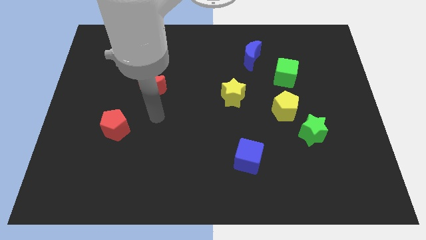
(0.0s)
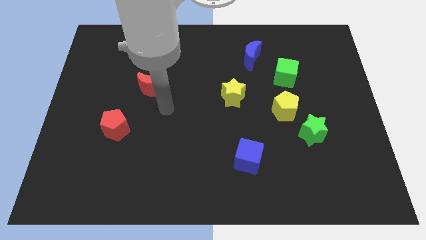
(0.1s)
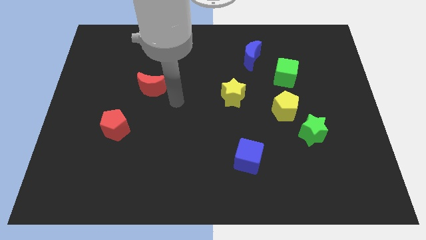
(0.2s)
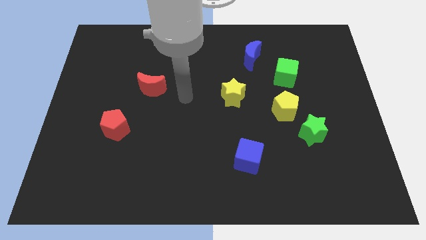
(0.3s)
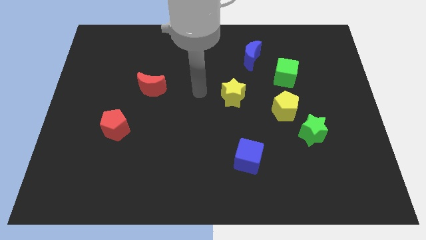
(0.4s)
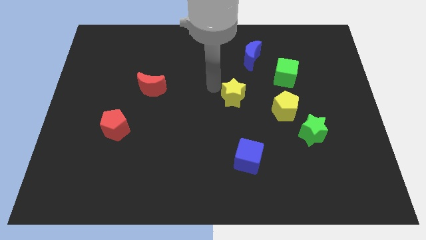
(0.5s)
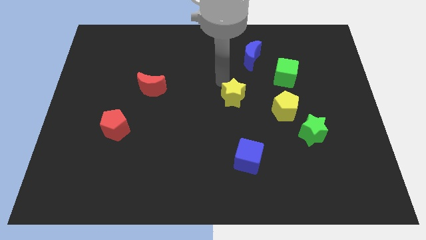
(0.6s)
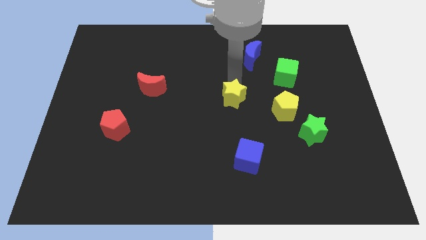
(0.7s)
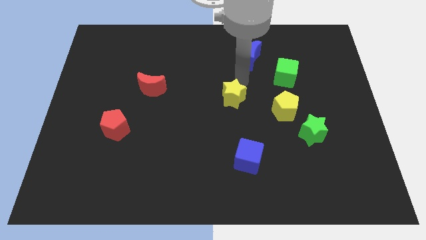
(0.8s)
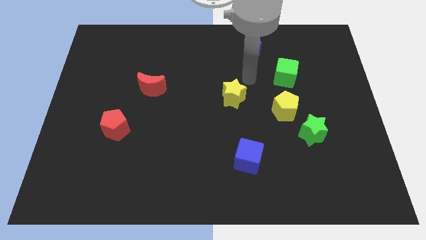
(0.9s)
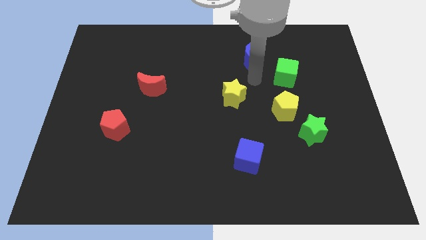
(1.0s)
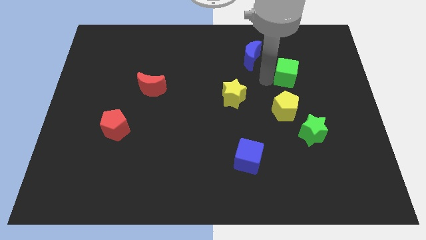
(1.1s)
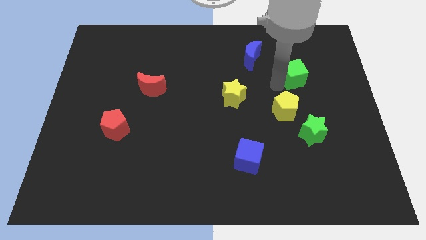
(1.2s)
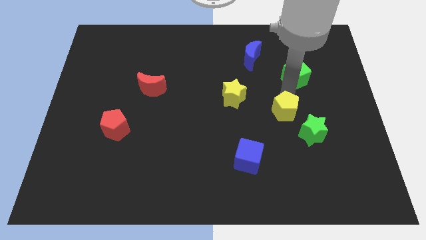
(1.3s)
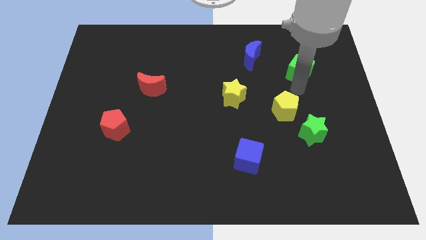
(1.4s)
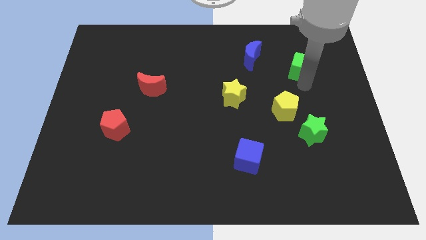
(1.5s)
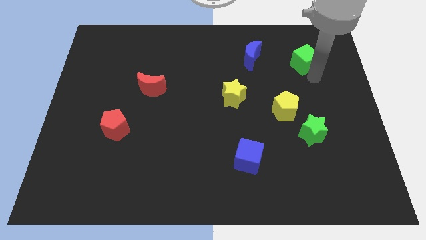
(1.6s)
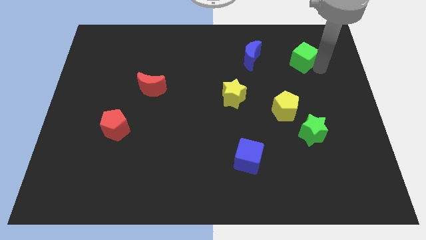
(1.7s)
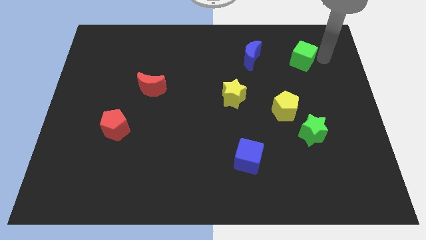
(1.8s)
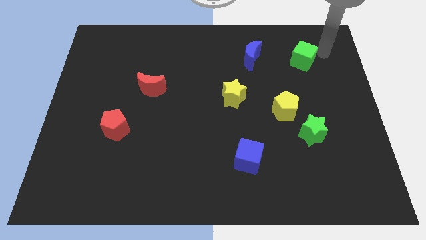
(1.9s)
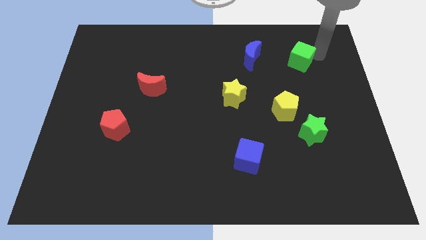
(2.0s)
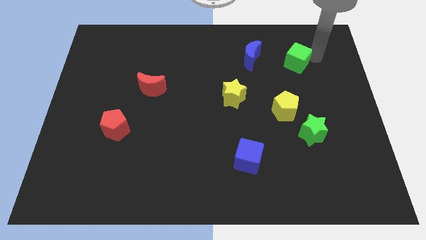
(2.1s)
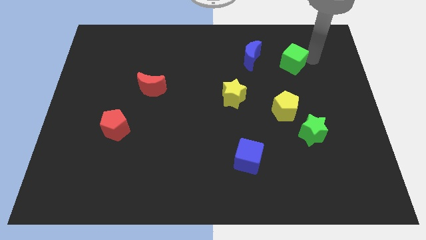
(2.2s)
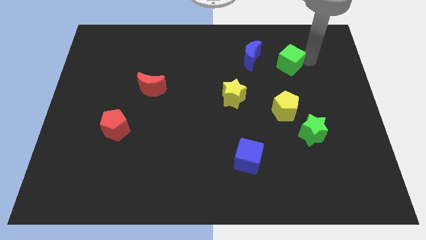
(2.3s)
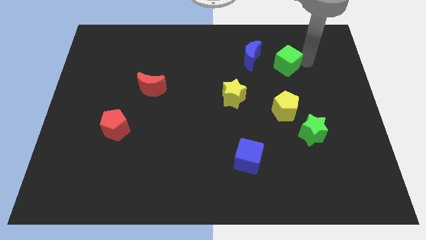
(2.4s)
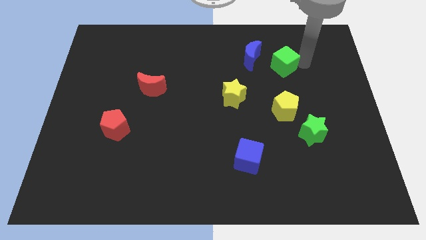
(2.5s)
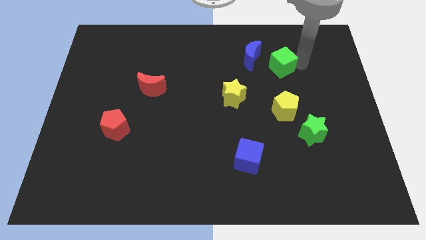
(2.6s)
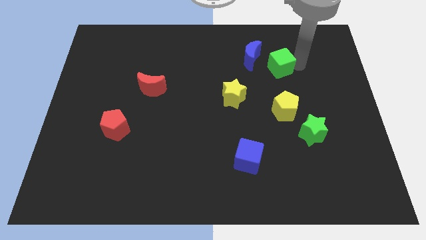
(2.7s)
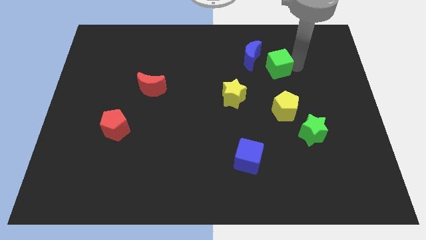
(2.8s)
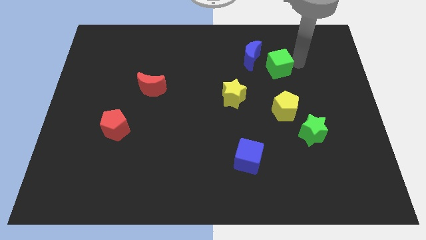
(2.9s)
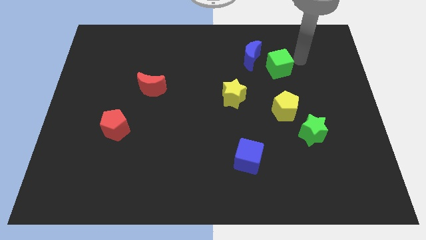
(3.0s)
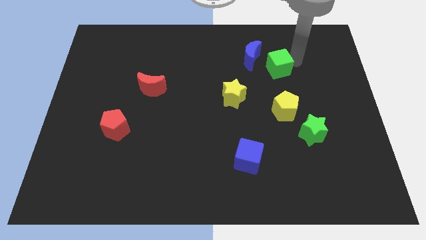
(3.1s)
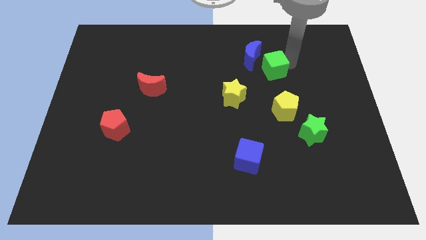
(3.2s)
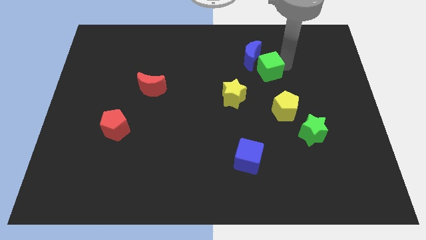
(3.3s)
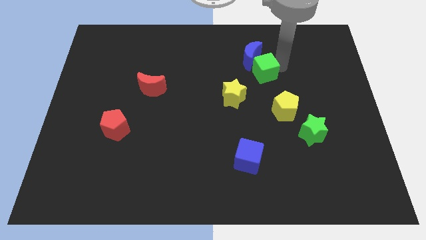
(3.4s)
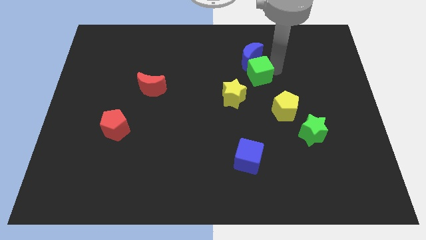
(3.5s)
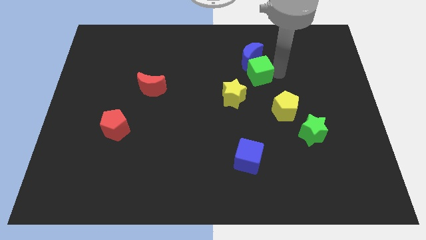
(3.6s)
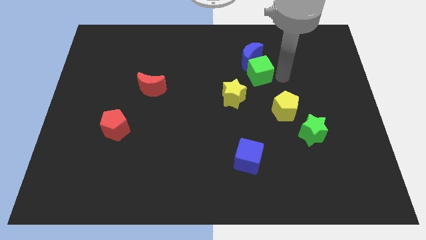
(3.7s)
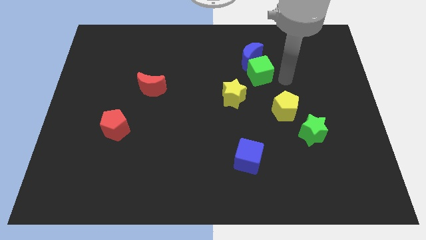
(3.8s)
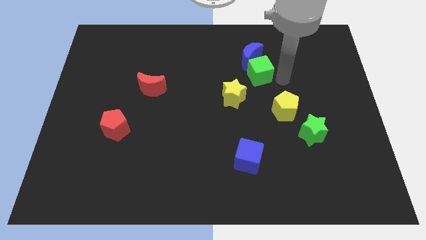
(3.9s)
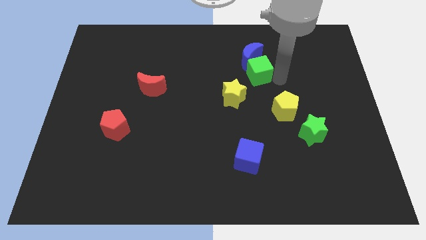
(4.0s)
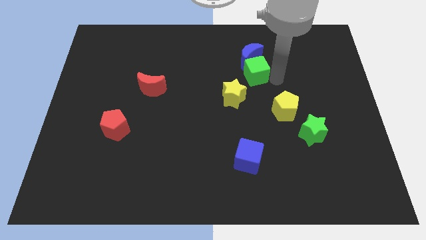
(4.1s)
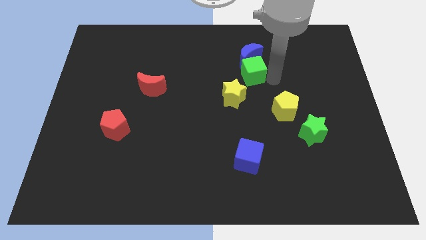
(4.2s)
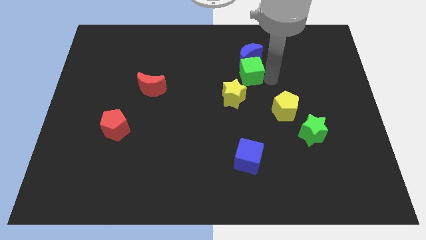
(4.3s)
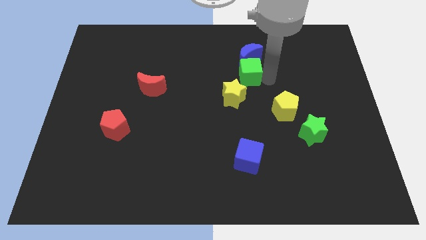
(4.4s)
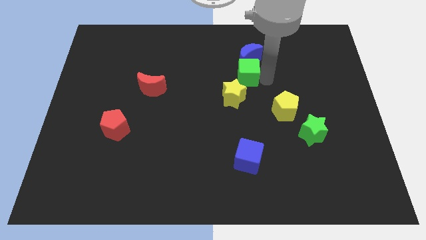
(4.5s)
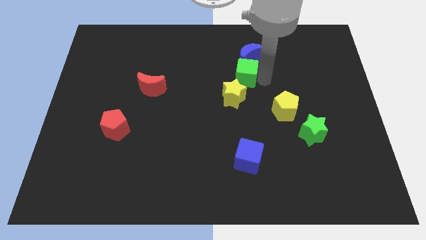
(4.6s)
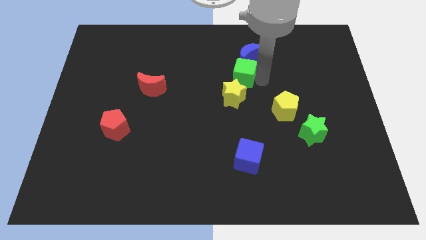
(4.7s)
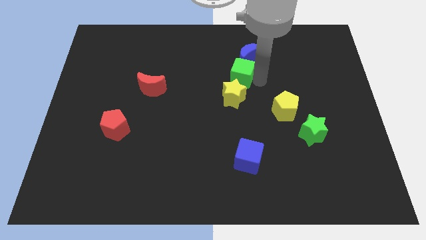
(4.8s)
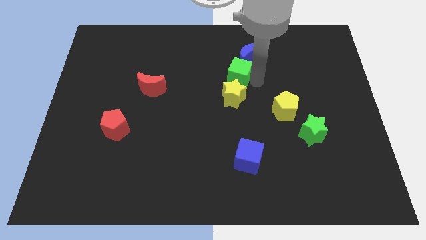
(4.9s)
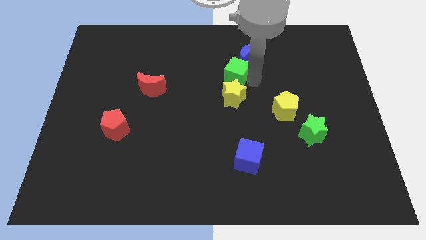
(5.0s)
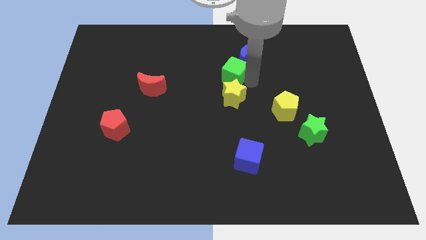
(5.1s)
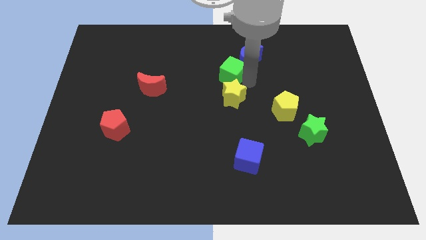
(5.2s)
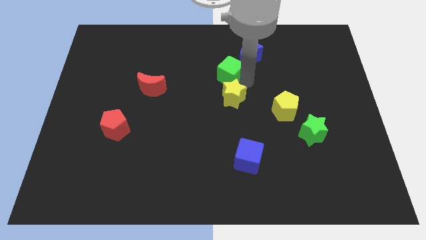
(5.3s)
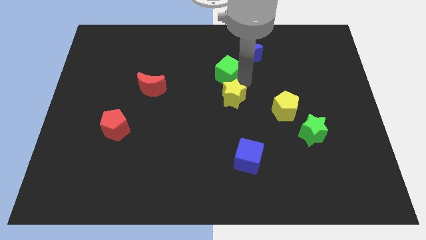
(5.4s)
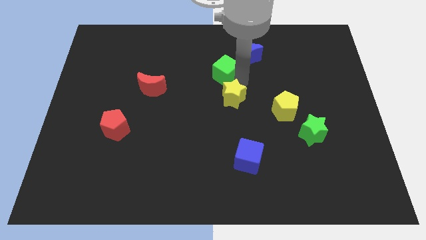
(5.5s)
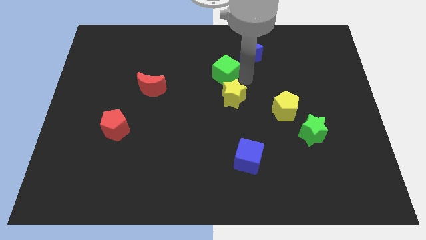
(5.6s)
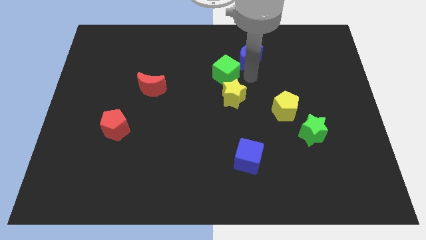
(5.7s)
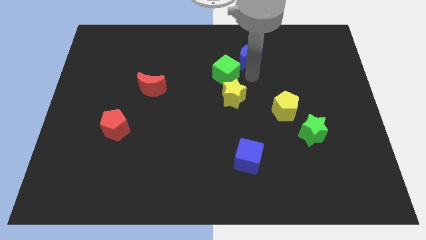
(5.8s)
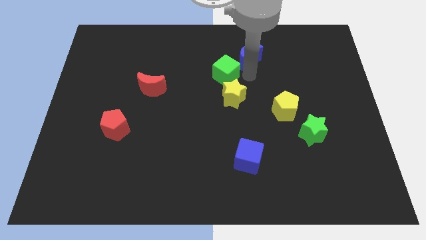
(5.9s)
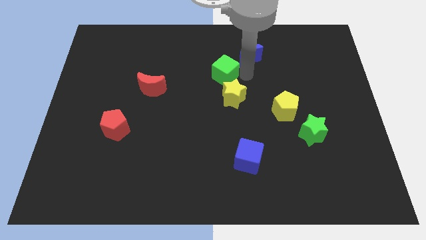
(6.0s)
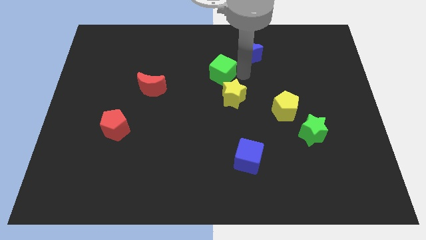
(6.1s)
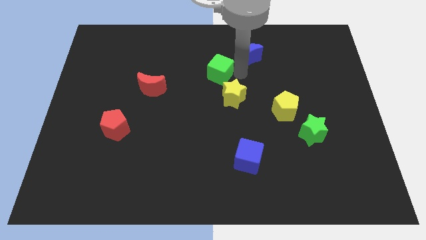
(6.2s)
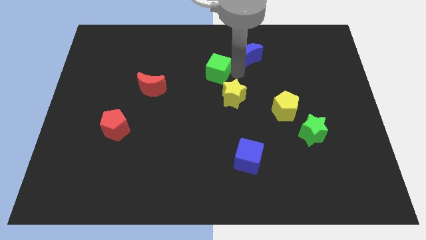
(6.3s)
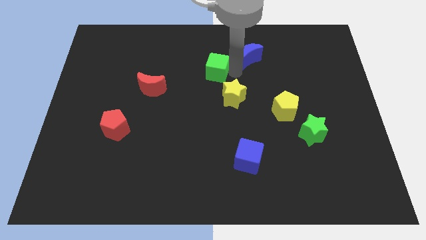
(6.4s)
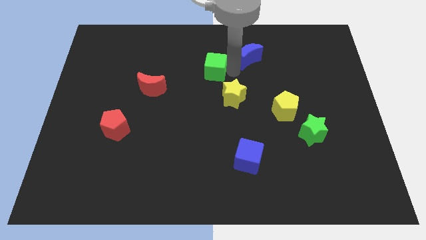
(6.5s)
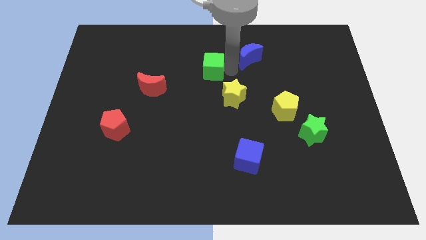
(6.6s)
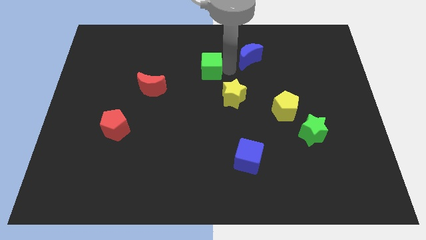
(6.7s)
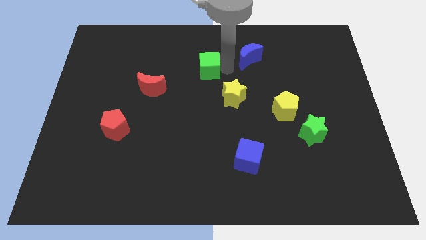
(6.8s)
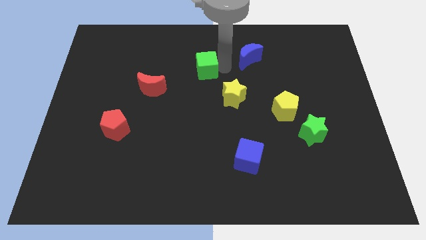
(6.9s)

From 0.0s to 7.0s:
move the green cube left

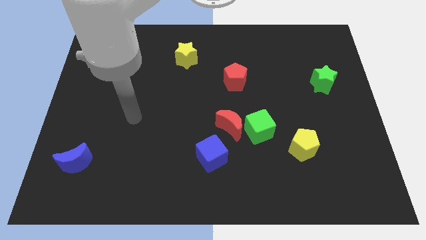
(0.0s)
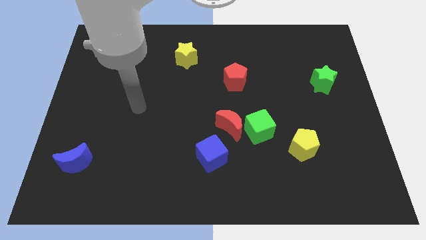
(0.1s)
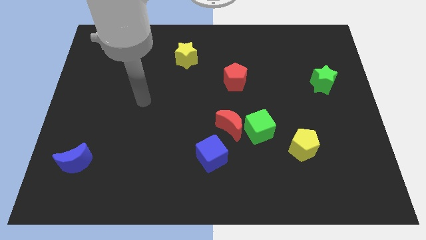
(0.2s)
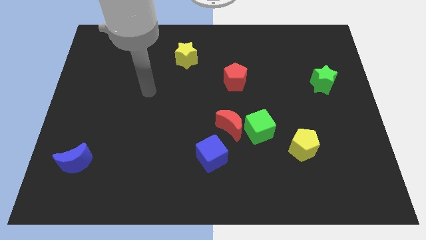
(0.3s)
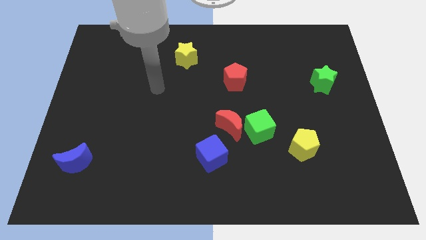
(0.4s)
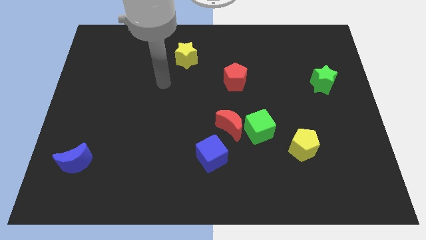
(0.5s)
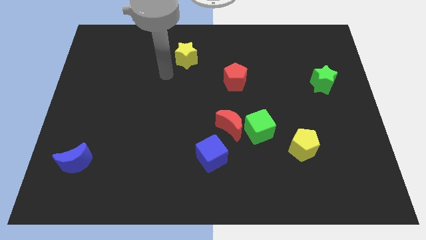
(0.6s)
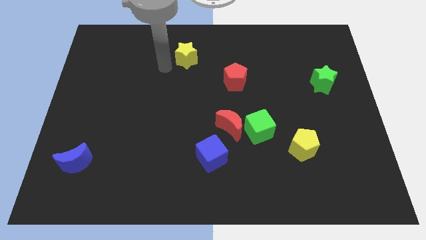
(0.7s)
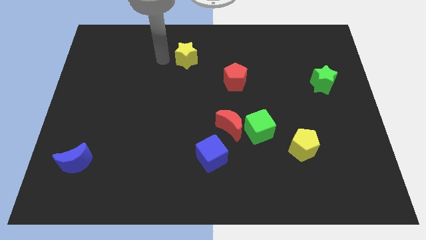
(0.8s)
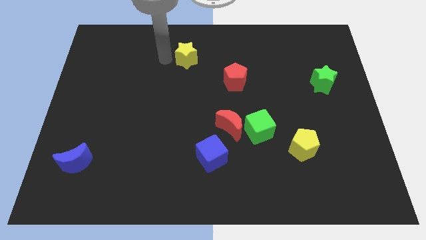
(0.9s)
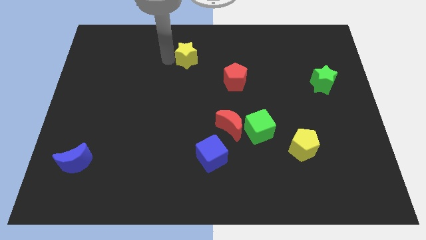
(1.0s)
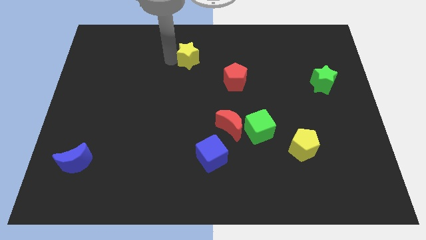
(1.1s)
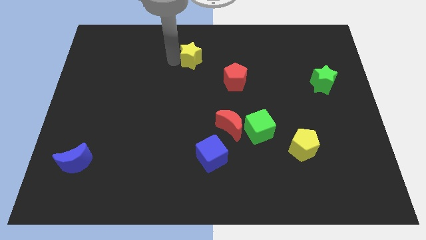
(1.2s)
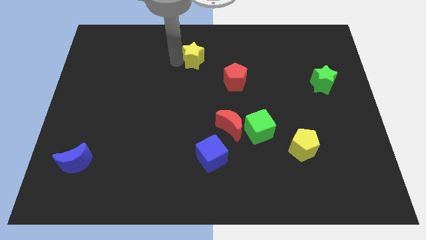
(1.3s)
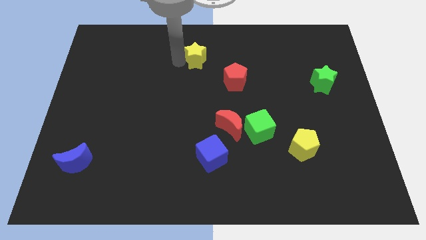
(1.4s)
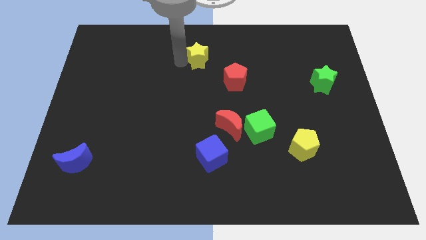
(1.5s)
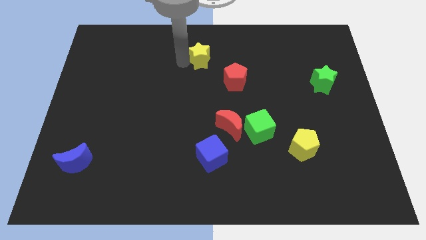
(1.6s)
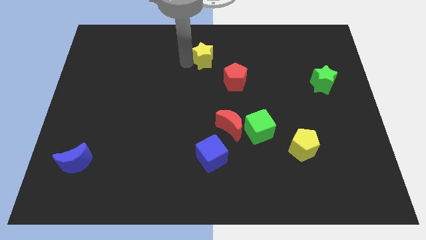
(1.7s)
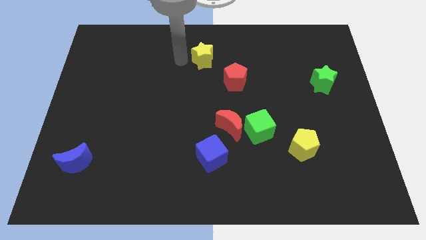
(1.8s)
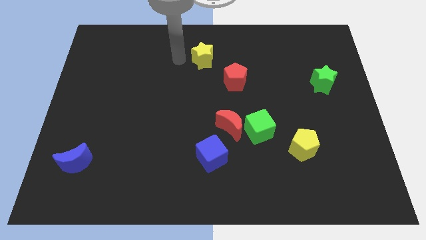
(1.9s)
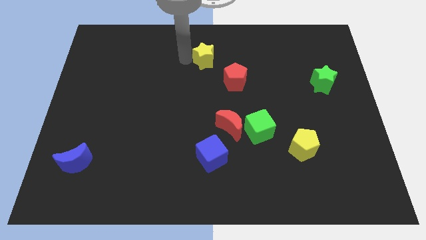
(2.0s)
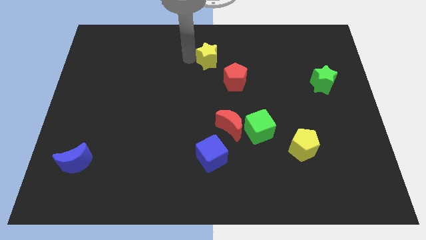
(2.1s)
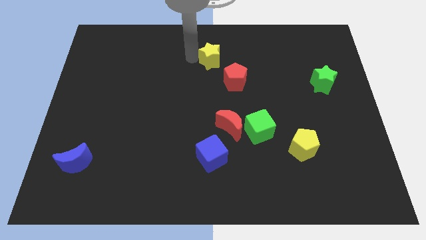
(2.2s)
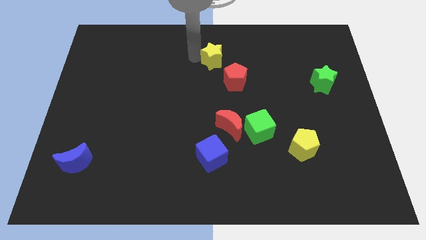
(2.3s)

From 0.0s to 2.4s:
move the yellow star a little bit right
